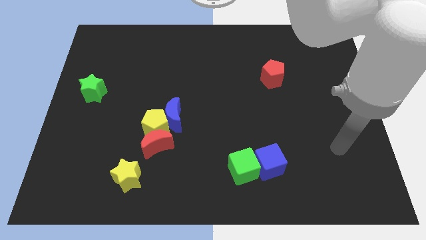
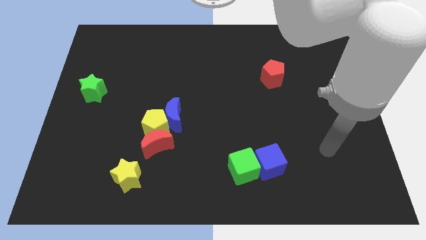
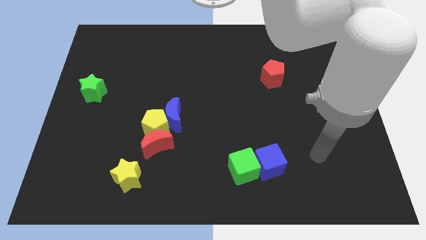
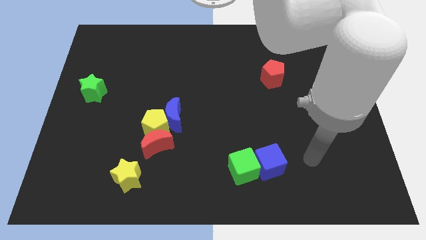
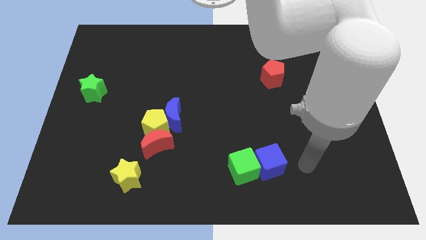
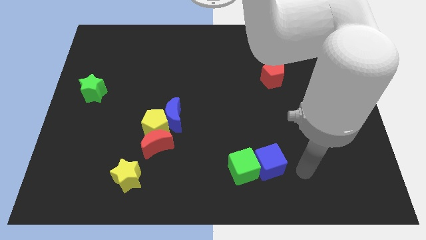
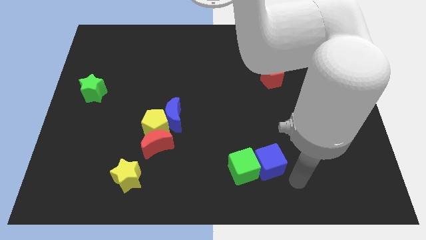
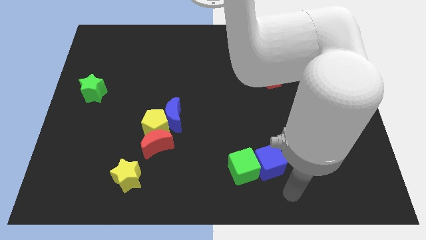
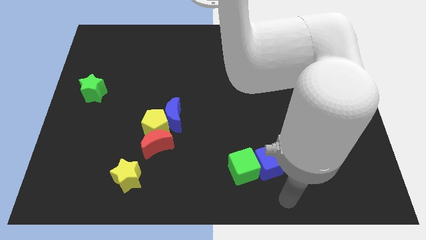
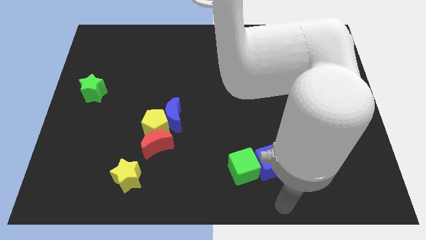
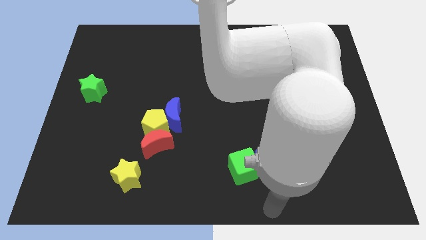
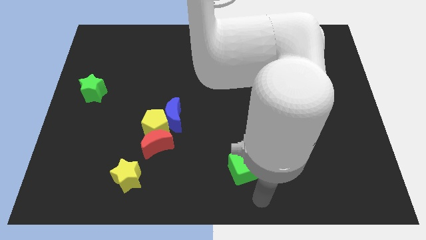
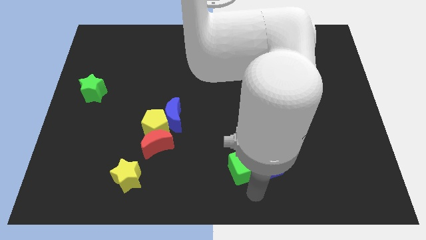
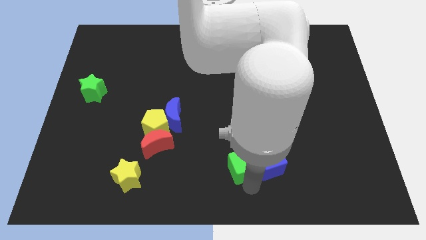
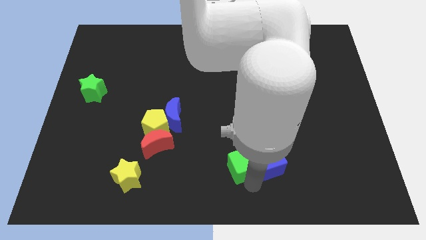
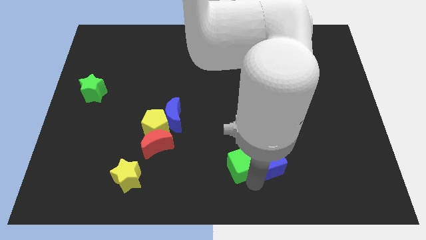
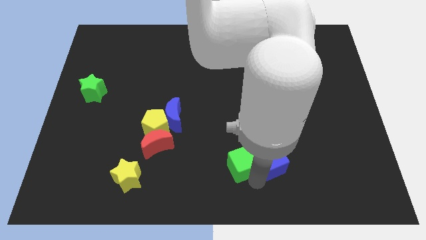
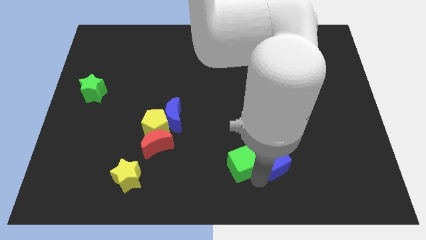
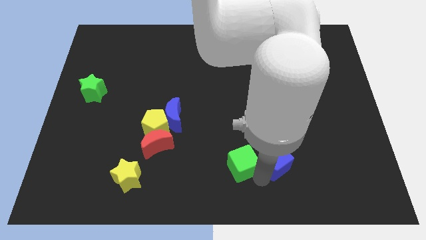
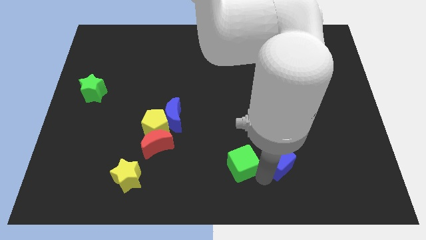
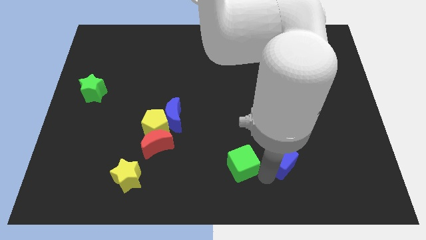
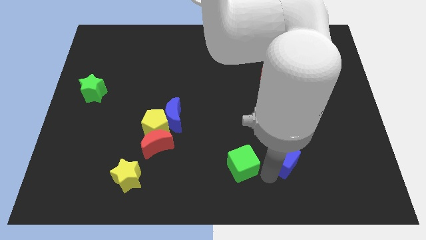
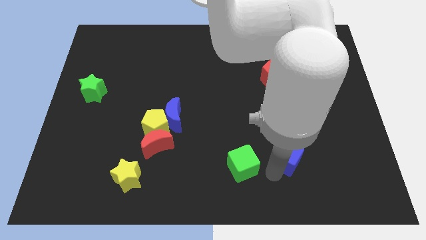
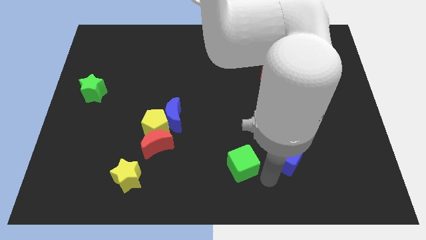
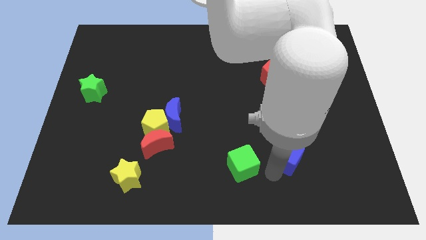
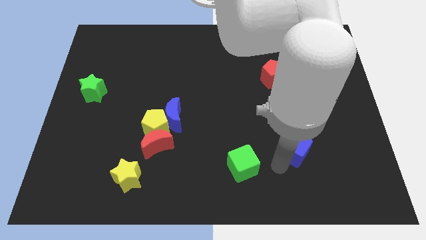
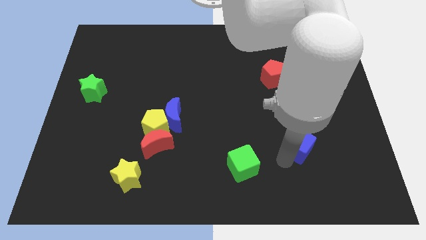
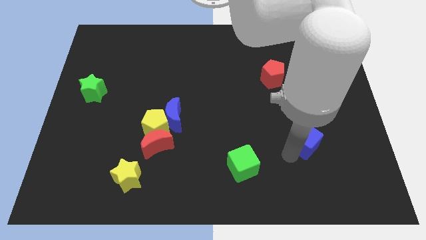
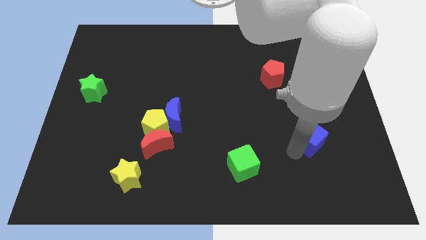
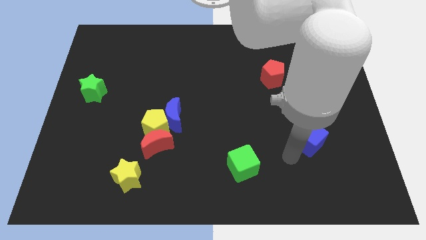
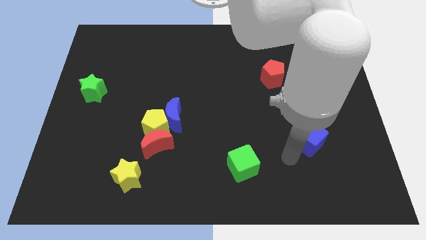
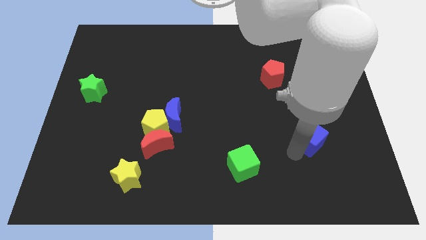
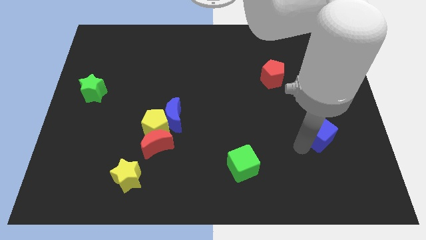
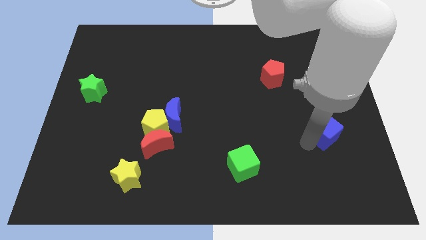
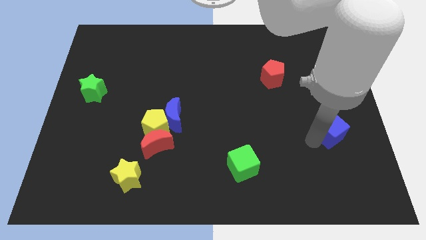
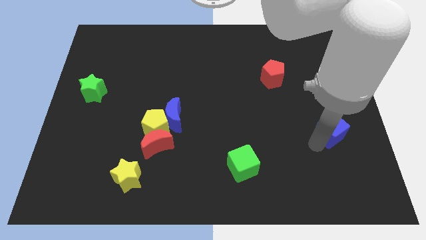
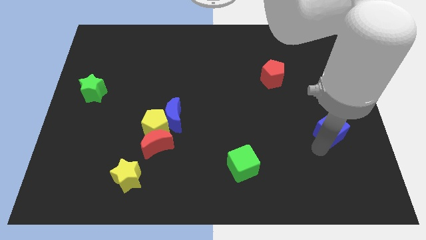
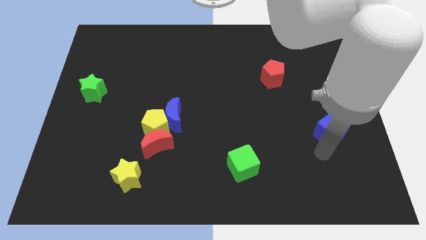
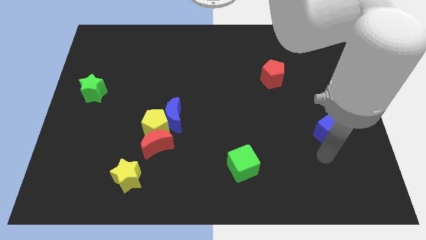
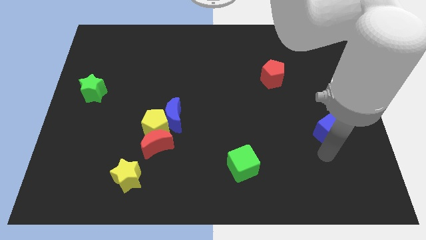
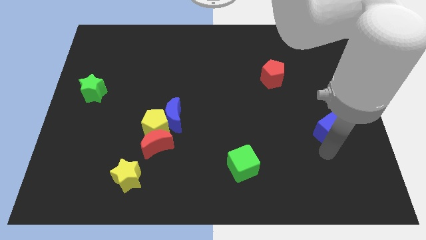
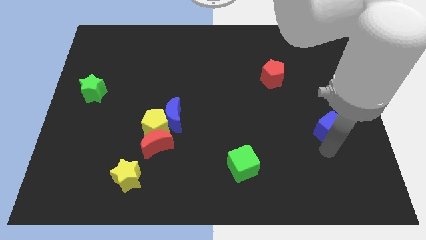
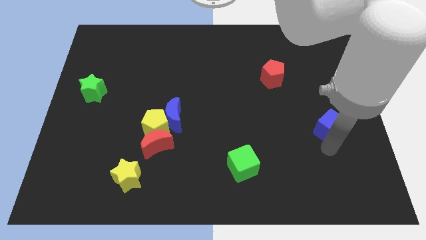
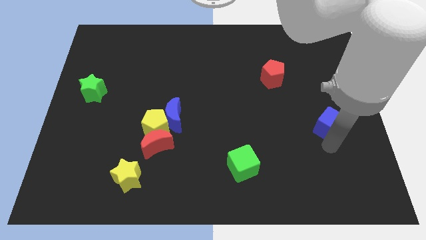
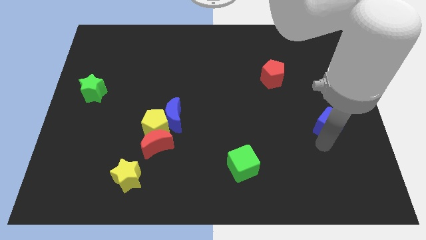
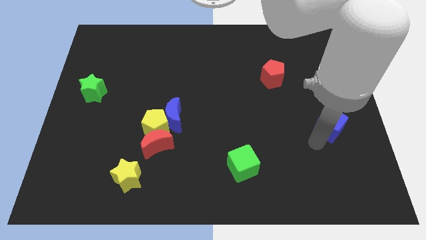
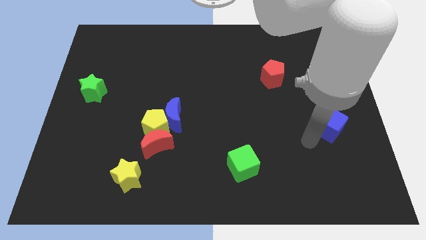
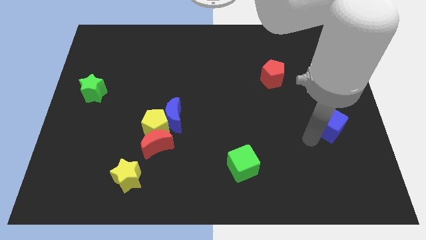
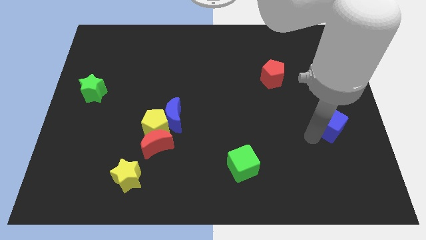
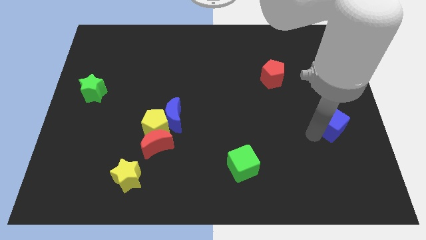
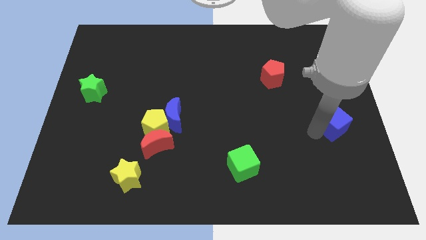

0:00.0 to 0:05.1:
push the blue cube to the right side of the board

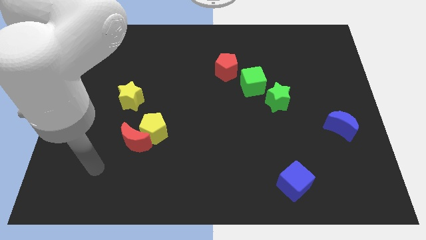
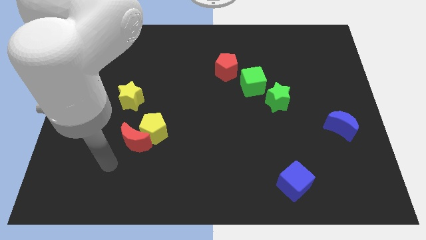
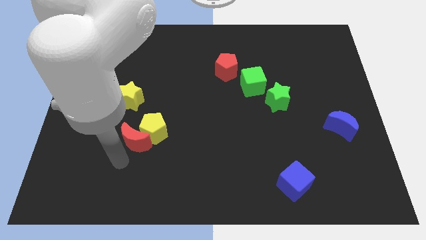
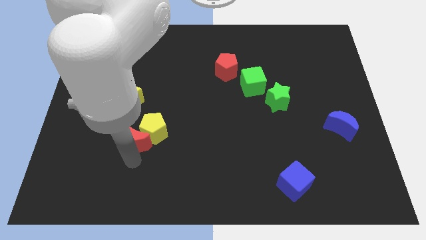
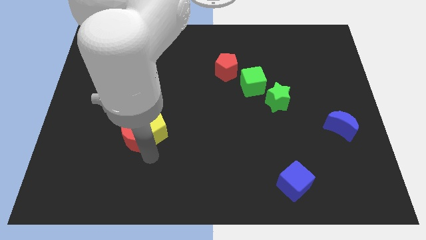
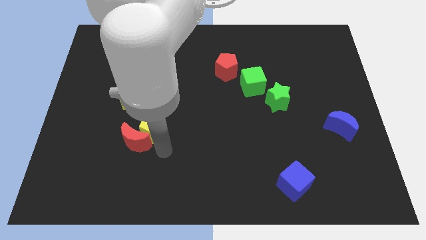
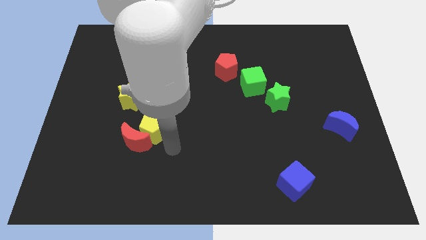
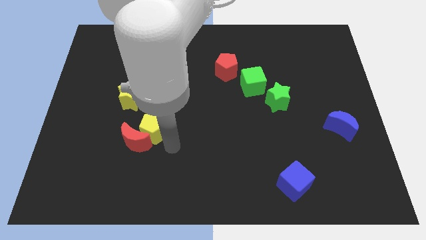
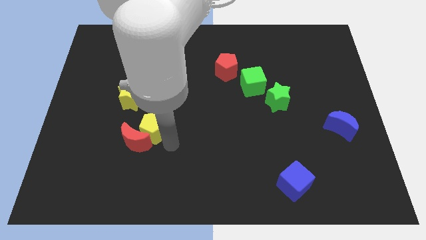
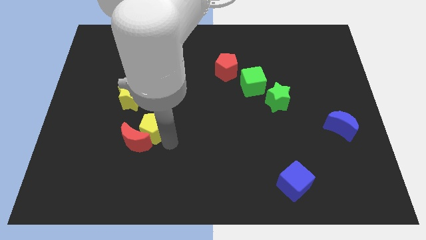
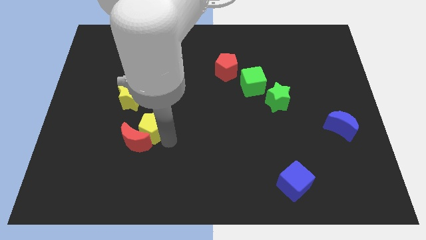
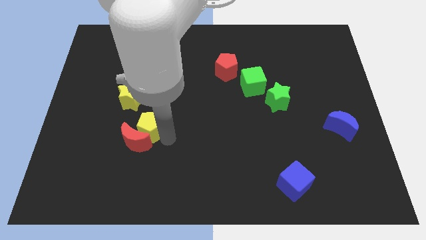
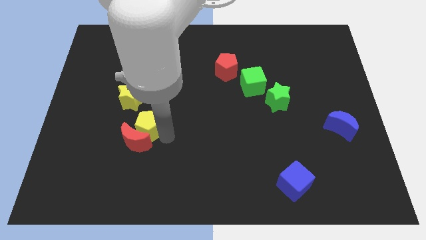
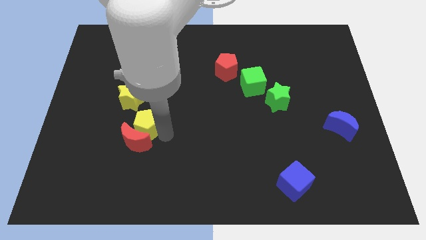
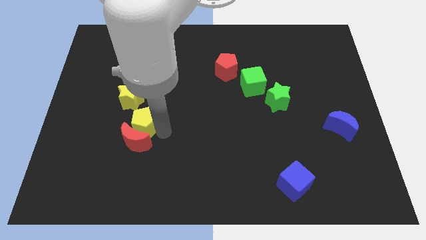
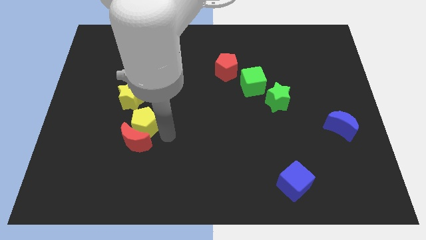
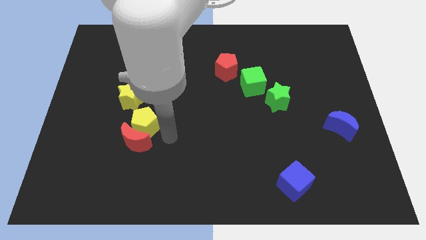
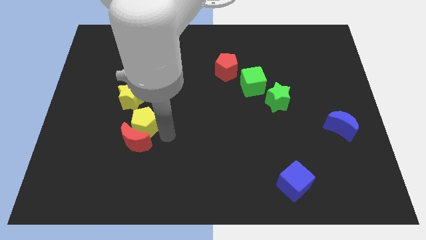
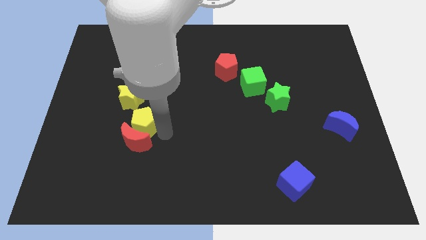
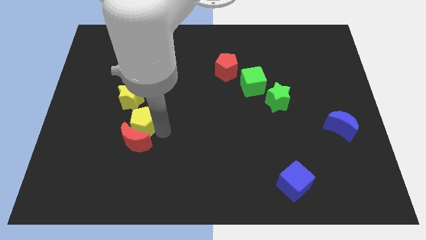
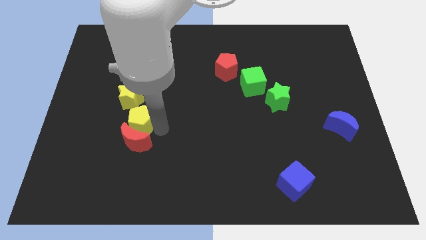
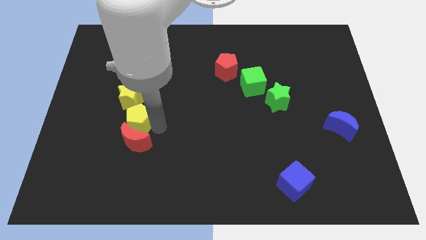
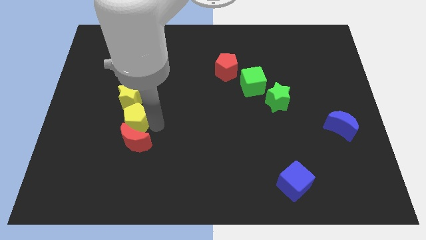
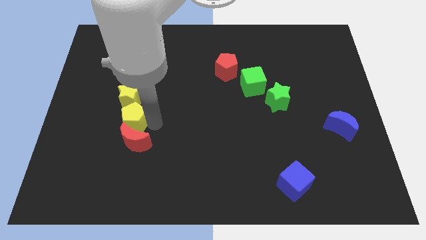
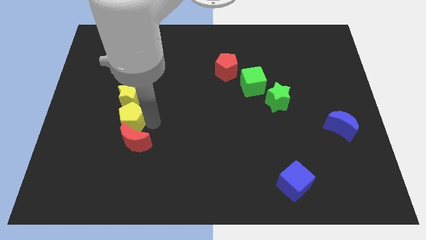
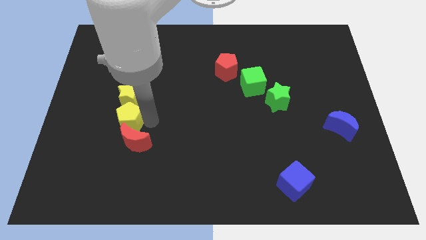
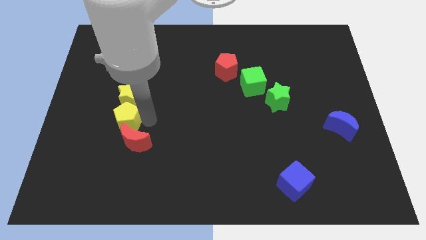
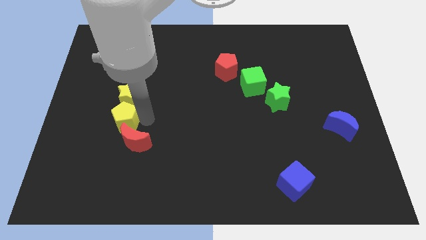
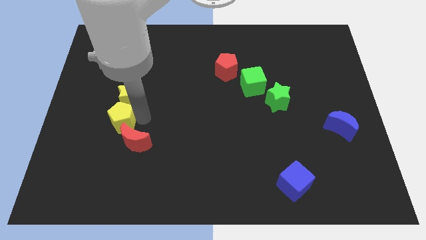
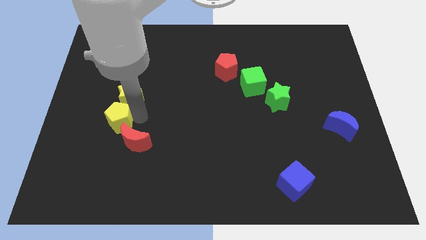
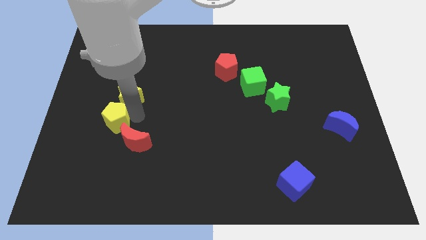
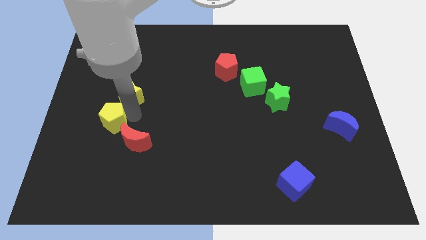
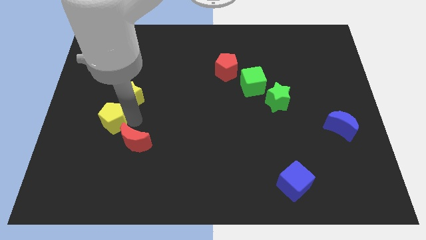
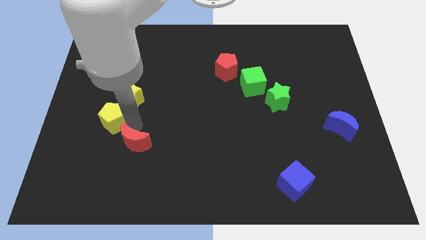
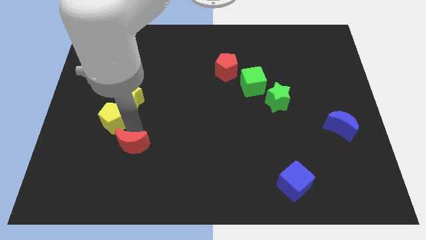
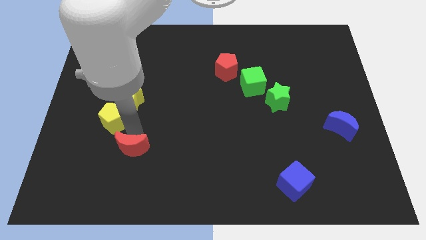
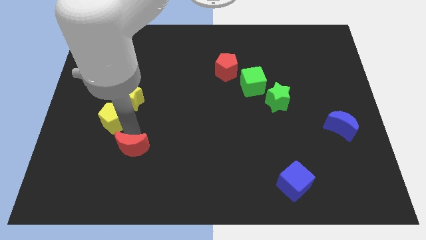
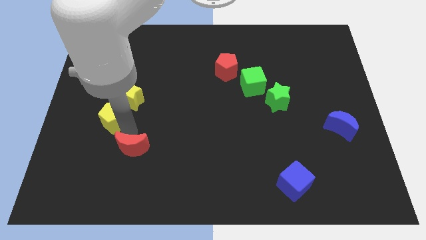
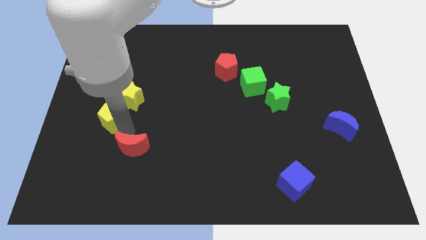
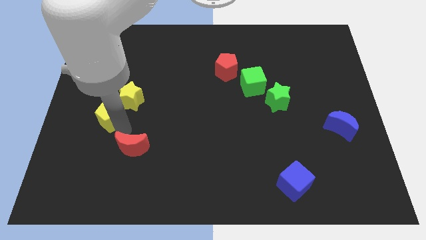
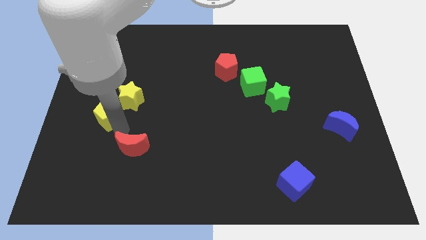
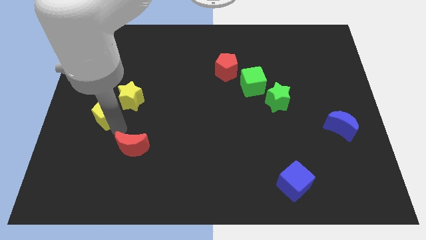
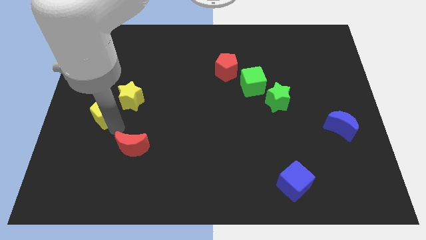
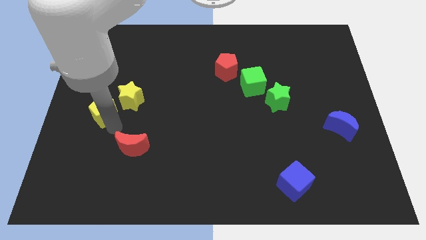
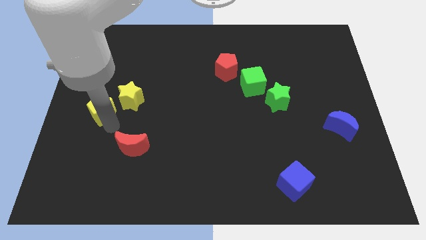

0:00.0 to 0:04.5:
slide the yellow pentagon to the center left
